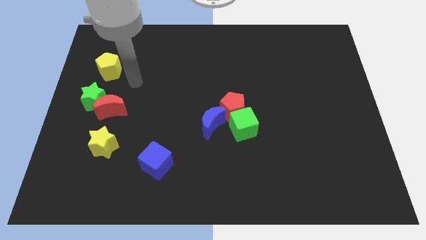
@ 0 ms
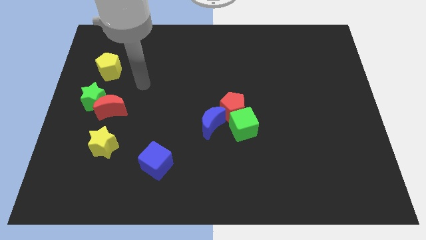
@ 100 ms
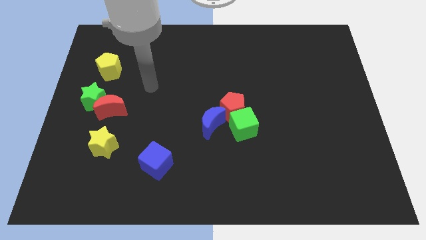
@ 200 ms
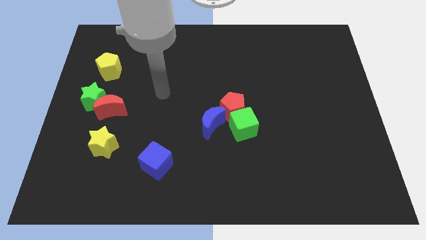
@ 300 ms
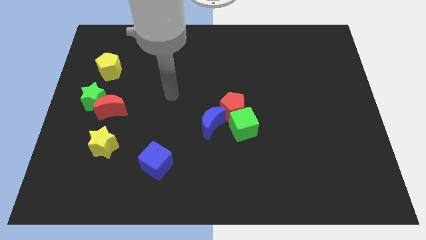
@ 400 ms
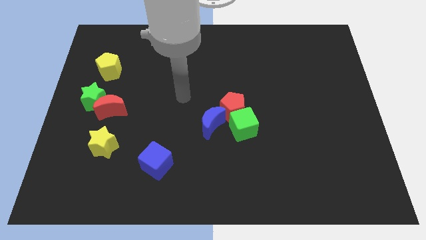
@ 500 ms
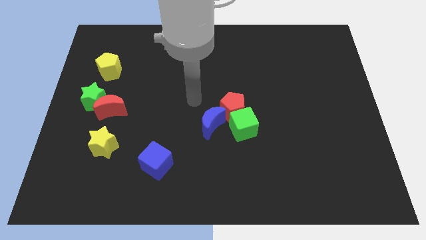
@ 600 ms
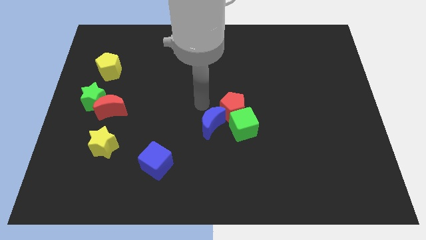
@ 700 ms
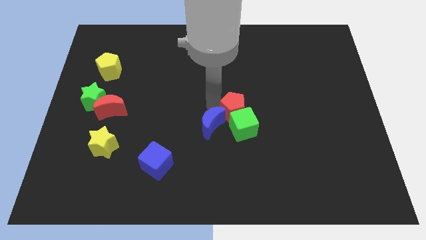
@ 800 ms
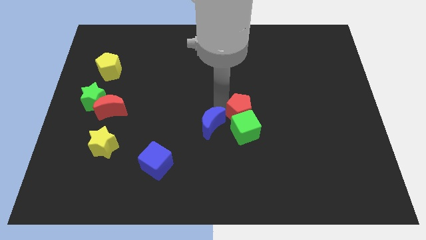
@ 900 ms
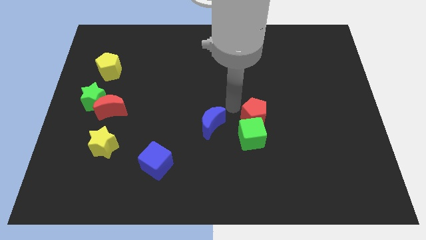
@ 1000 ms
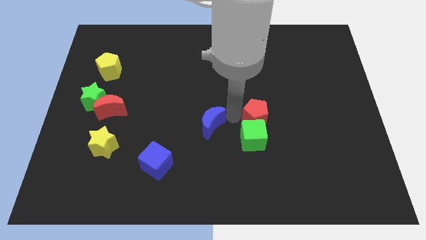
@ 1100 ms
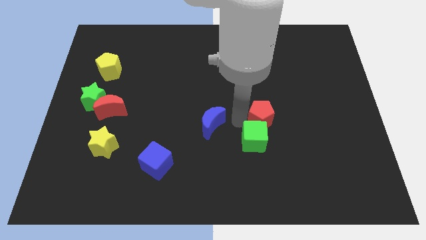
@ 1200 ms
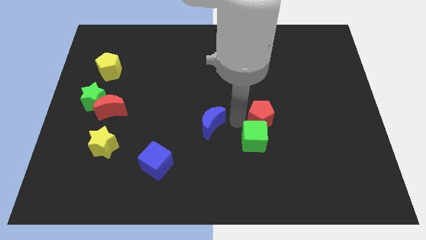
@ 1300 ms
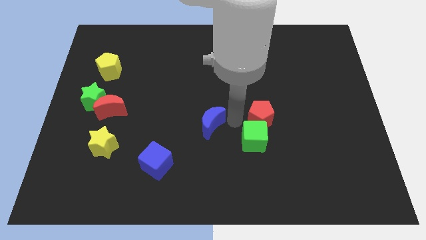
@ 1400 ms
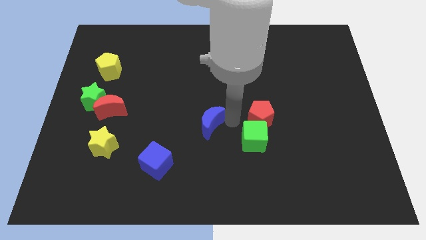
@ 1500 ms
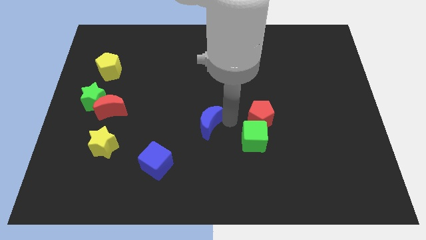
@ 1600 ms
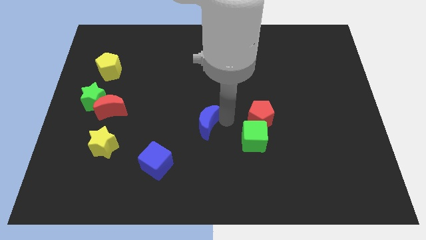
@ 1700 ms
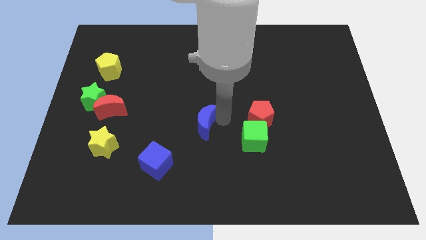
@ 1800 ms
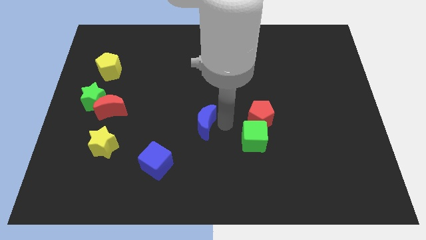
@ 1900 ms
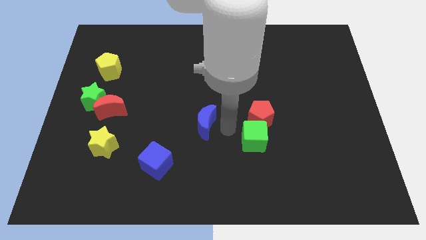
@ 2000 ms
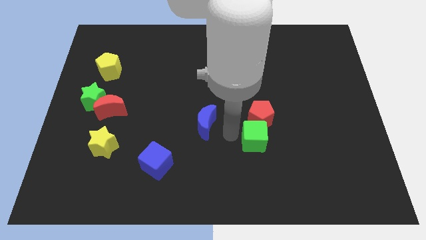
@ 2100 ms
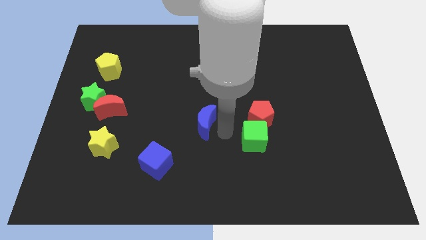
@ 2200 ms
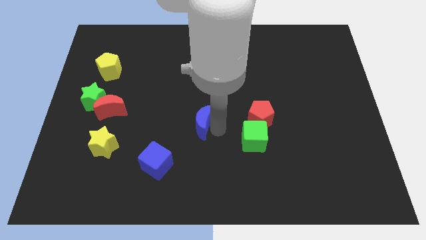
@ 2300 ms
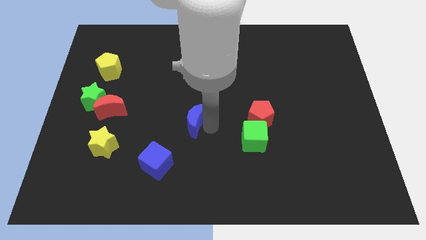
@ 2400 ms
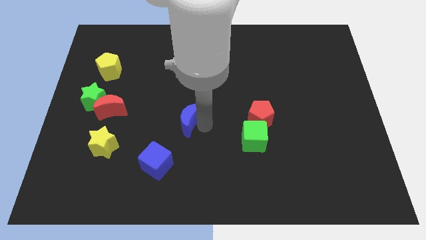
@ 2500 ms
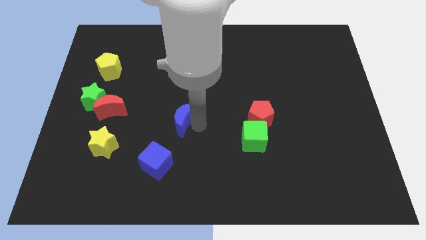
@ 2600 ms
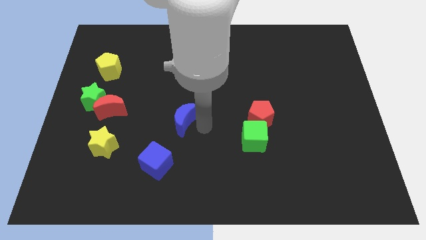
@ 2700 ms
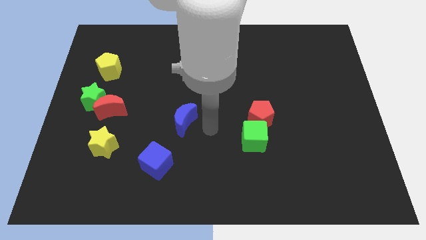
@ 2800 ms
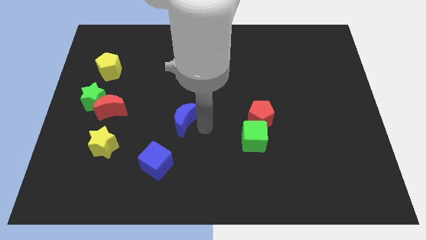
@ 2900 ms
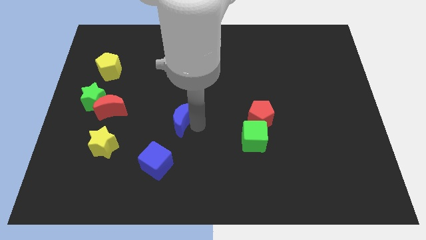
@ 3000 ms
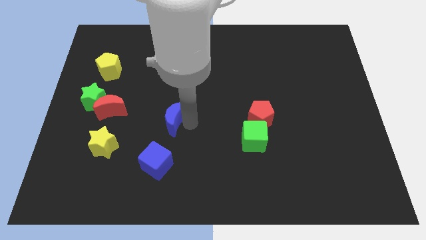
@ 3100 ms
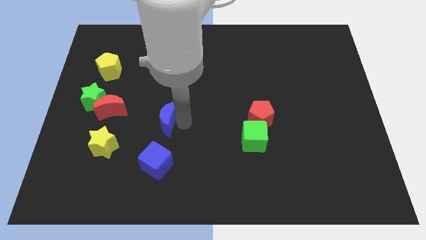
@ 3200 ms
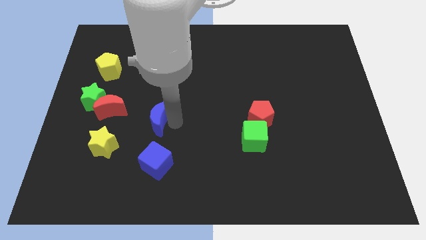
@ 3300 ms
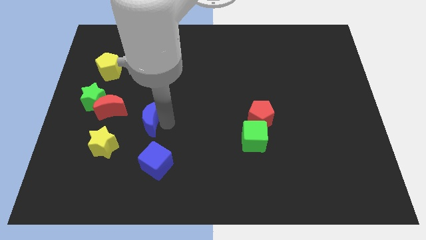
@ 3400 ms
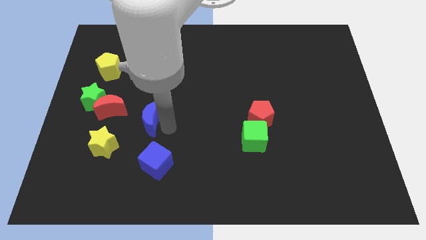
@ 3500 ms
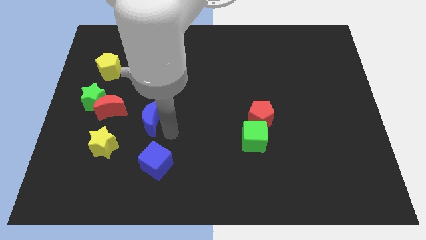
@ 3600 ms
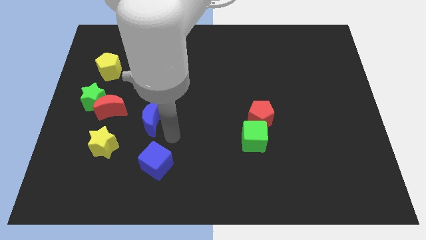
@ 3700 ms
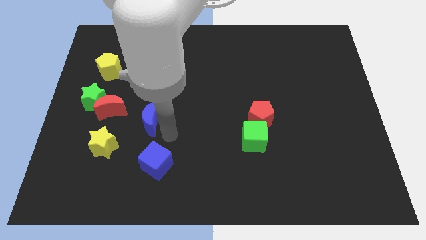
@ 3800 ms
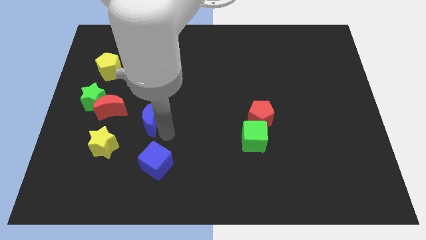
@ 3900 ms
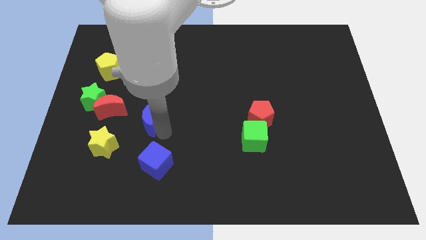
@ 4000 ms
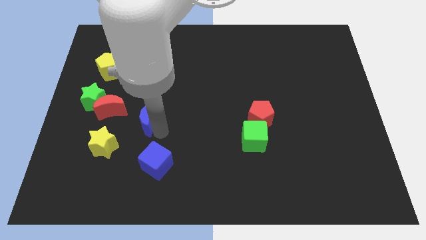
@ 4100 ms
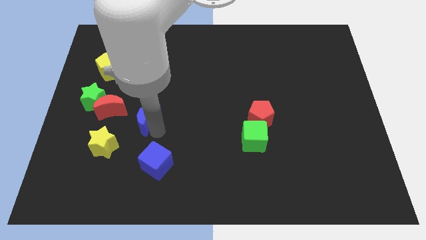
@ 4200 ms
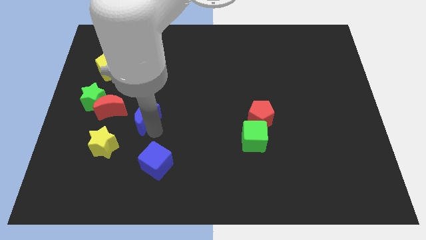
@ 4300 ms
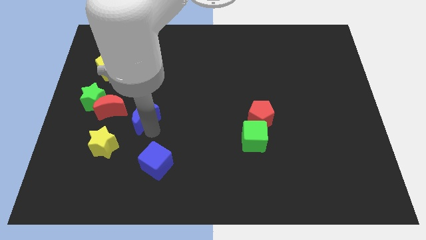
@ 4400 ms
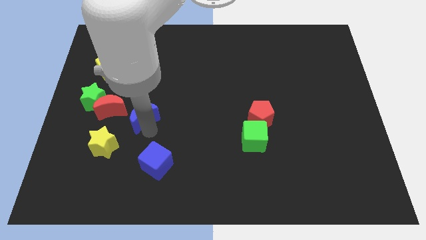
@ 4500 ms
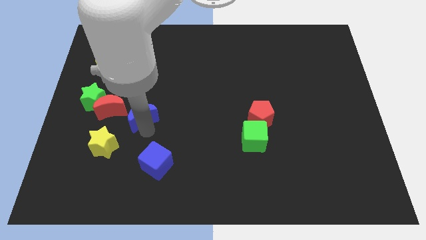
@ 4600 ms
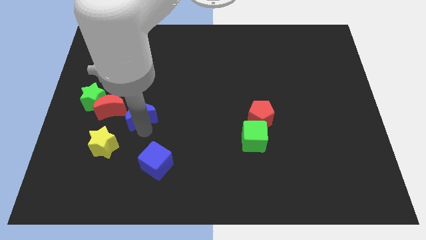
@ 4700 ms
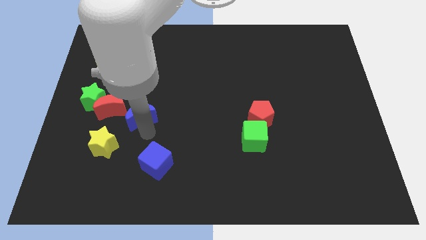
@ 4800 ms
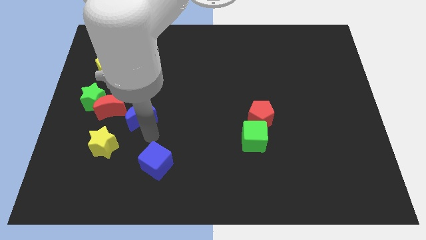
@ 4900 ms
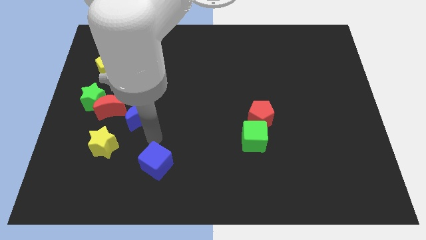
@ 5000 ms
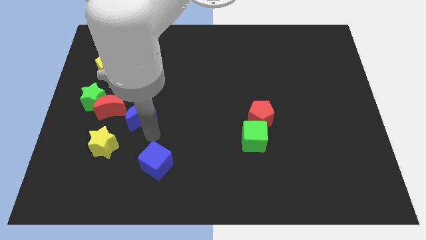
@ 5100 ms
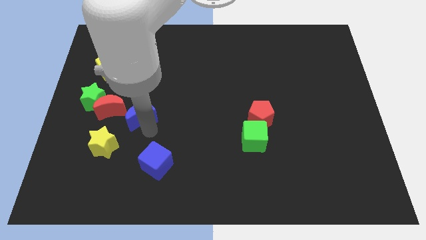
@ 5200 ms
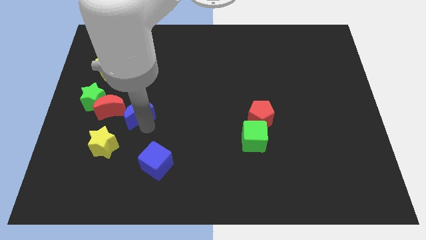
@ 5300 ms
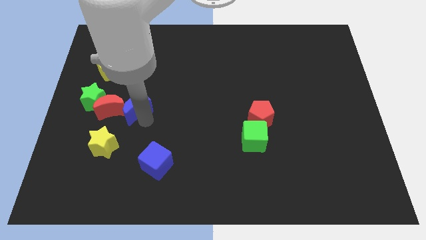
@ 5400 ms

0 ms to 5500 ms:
move the blue moon next to the red moon

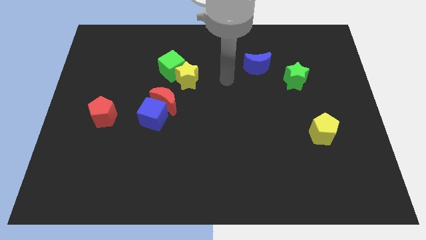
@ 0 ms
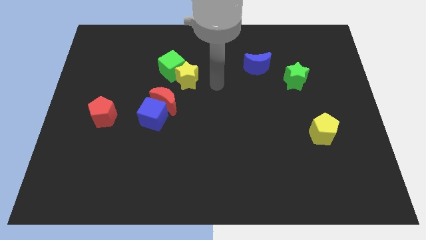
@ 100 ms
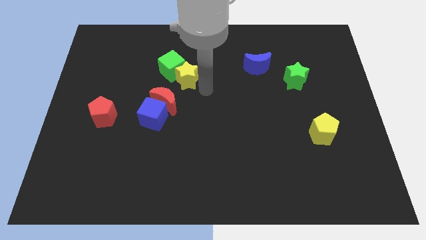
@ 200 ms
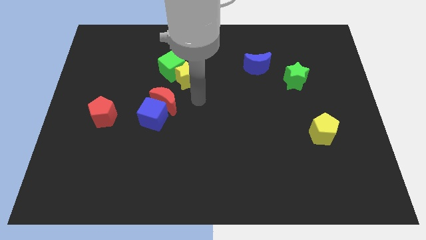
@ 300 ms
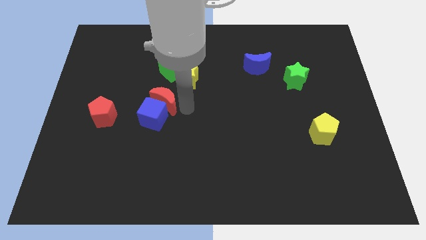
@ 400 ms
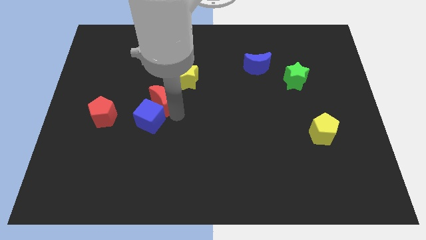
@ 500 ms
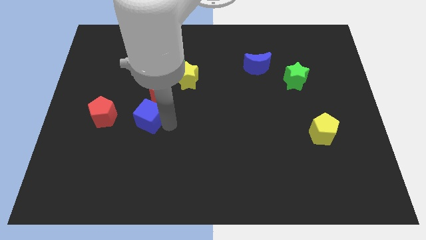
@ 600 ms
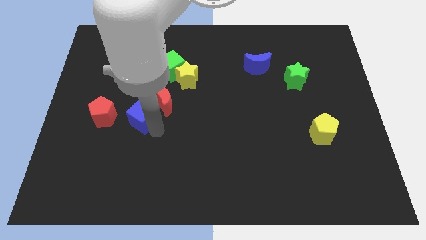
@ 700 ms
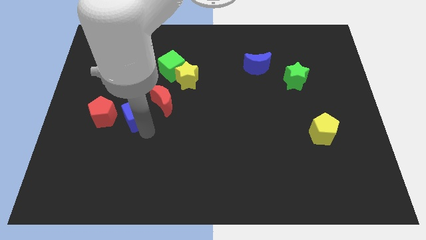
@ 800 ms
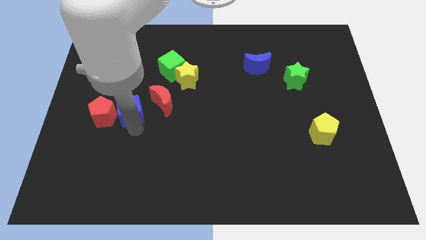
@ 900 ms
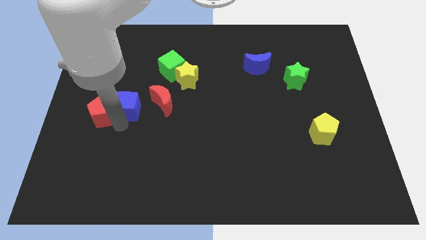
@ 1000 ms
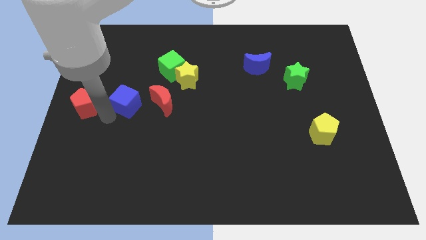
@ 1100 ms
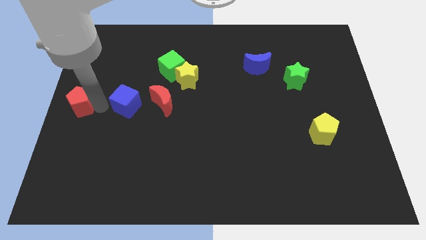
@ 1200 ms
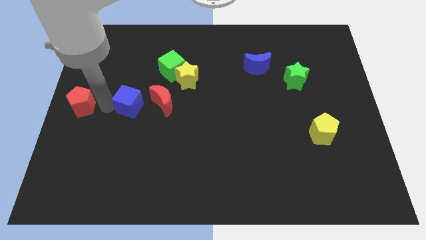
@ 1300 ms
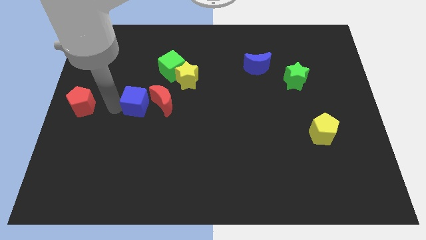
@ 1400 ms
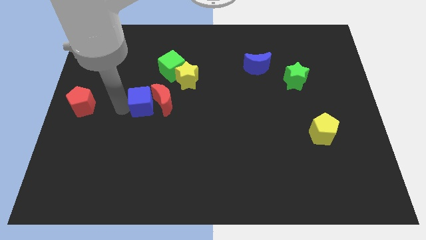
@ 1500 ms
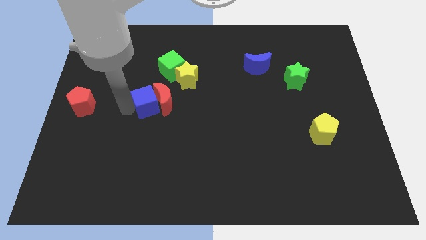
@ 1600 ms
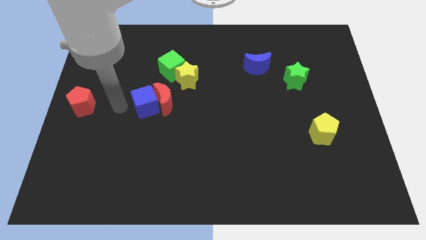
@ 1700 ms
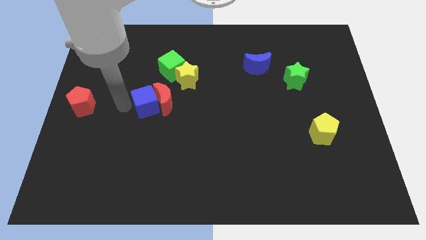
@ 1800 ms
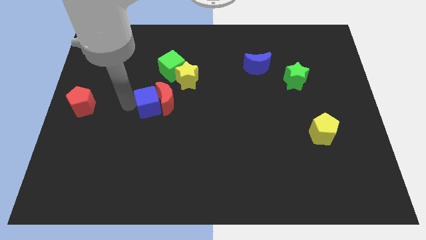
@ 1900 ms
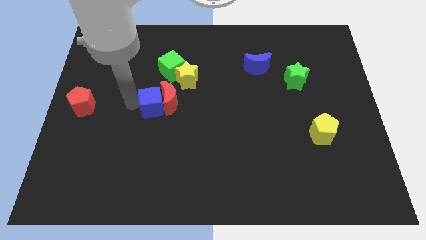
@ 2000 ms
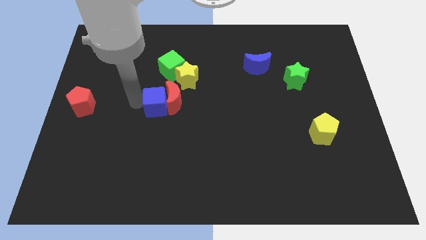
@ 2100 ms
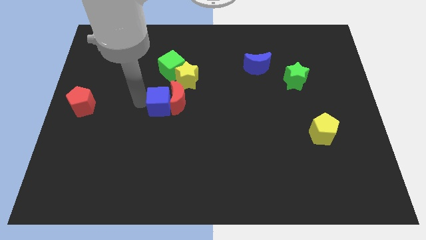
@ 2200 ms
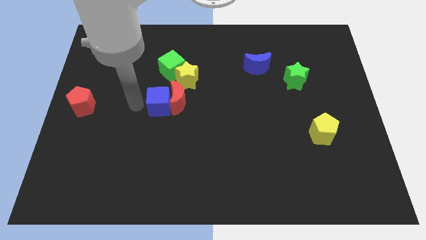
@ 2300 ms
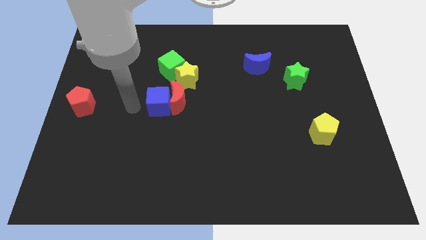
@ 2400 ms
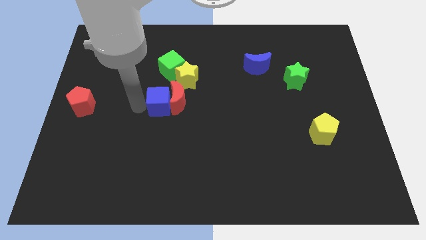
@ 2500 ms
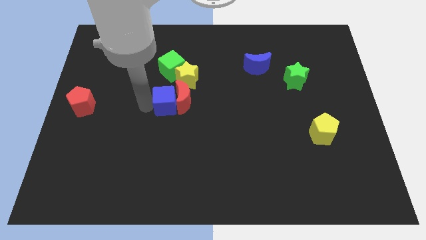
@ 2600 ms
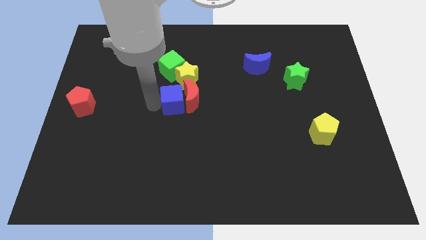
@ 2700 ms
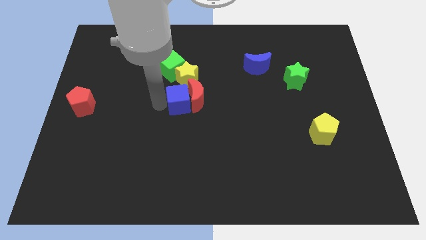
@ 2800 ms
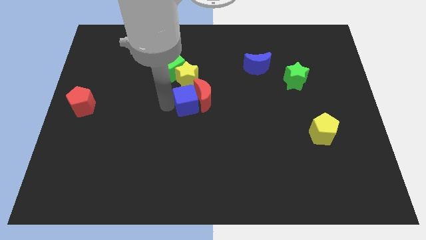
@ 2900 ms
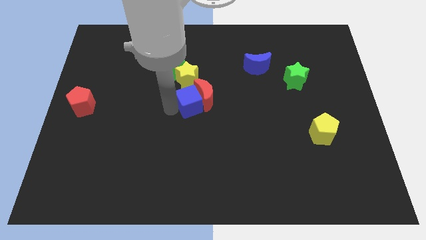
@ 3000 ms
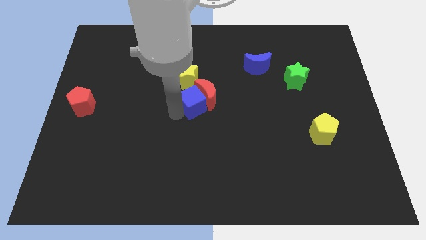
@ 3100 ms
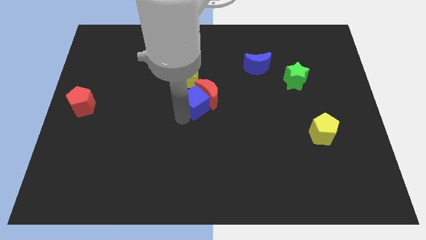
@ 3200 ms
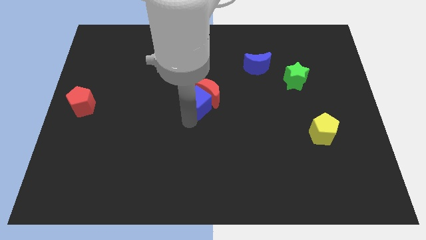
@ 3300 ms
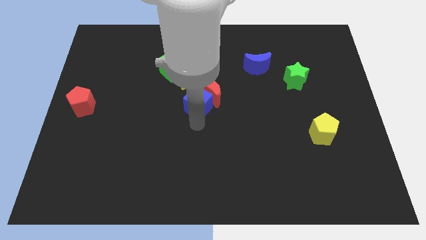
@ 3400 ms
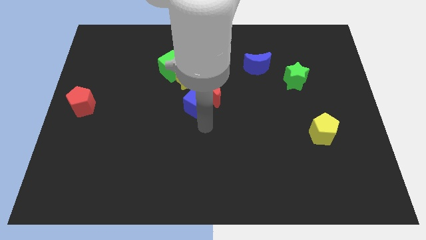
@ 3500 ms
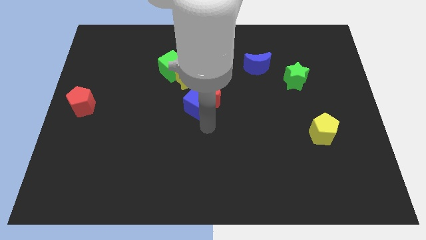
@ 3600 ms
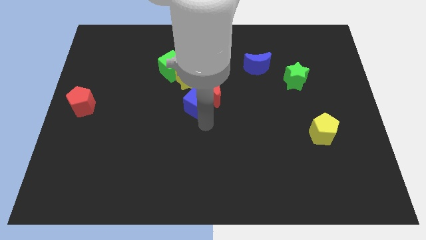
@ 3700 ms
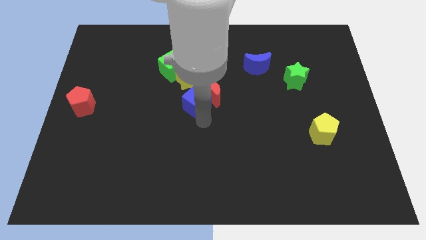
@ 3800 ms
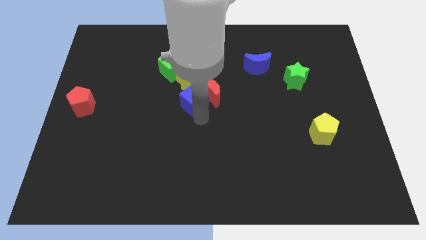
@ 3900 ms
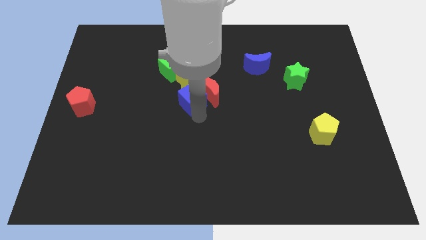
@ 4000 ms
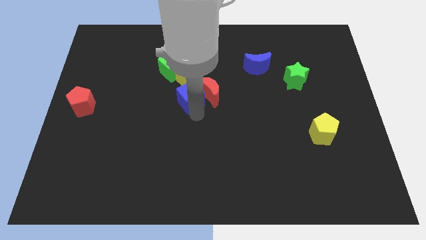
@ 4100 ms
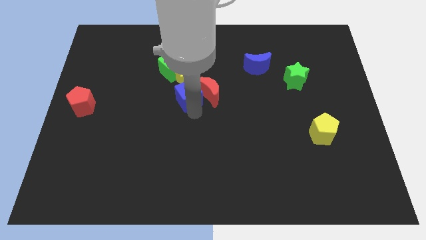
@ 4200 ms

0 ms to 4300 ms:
put the blue cube to the yellow star
